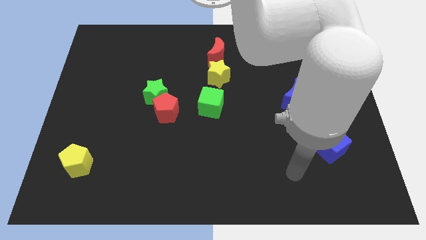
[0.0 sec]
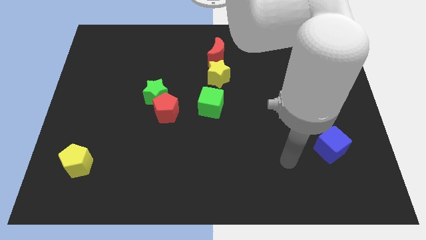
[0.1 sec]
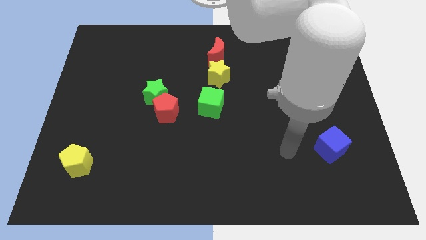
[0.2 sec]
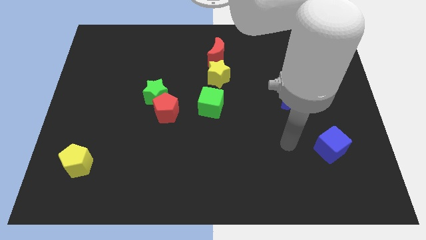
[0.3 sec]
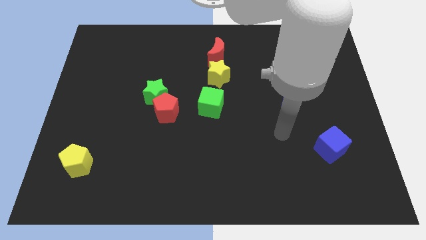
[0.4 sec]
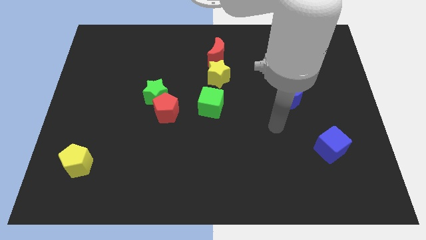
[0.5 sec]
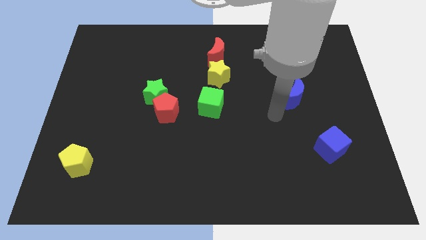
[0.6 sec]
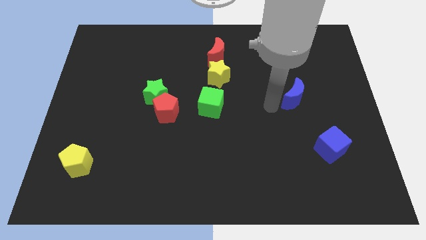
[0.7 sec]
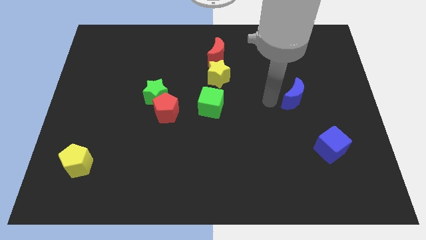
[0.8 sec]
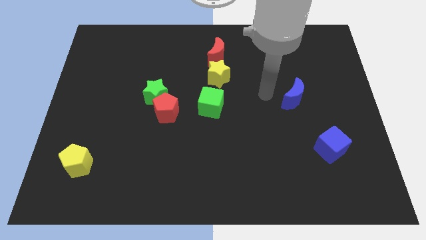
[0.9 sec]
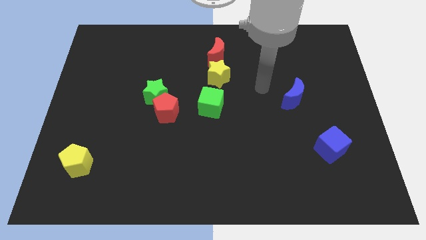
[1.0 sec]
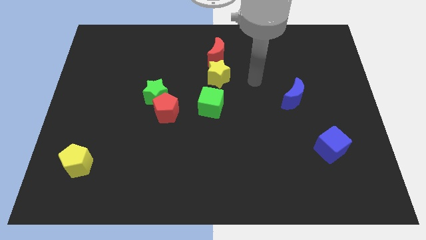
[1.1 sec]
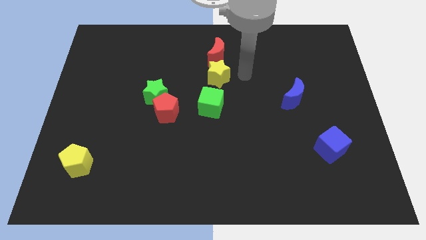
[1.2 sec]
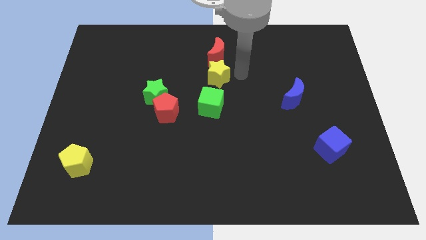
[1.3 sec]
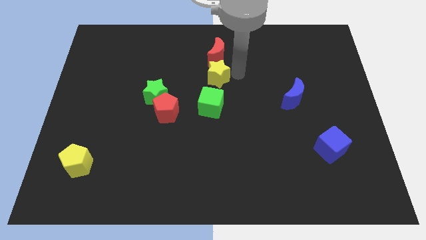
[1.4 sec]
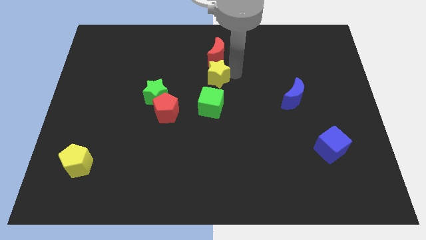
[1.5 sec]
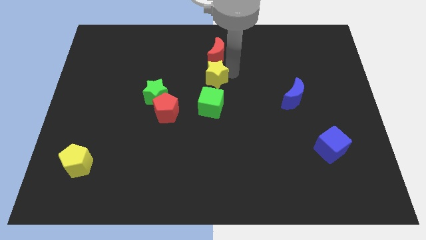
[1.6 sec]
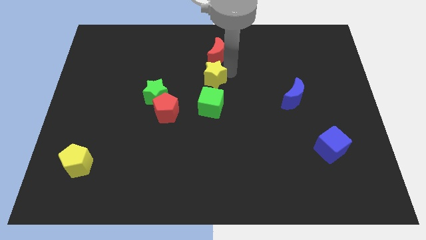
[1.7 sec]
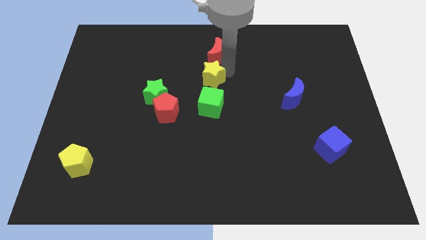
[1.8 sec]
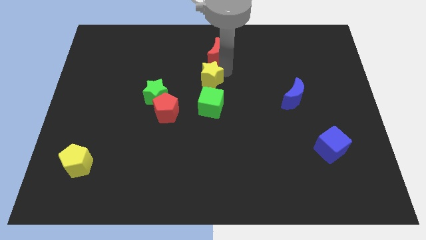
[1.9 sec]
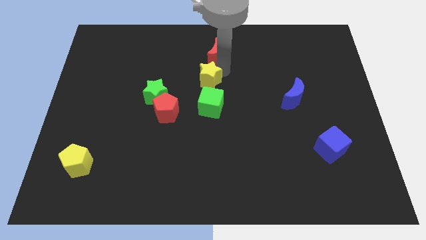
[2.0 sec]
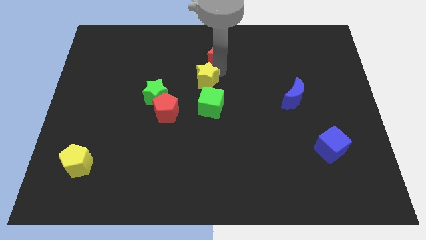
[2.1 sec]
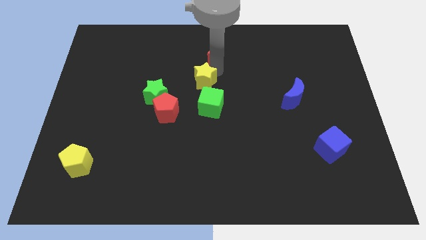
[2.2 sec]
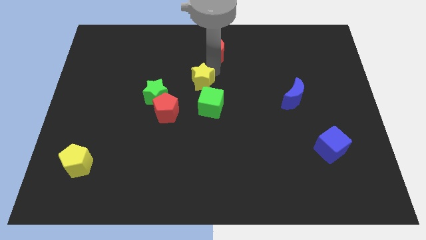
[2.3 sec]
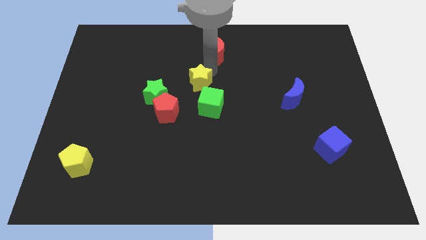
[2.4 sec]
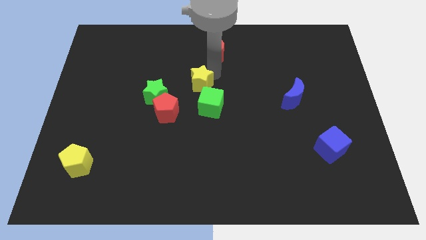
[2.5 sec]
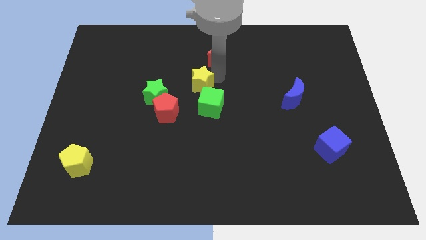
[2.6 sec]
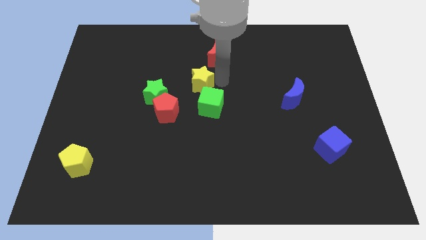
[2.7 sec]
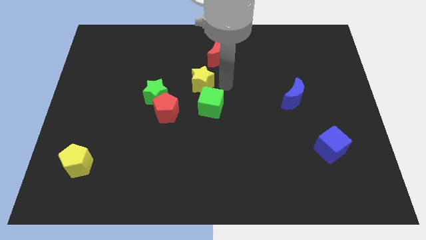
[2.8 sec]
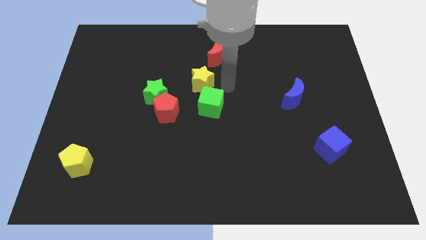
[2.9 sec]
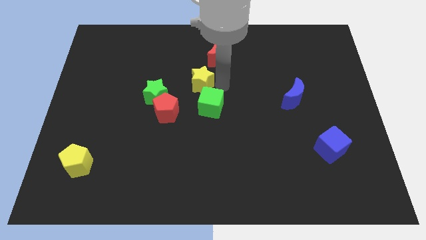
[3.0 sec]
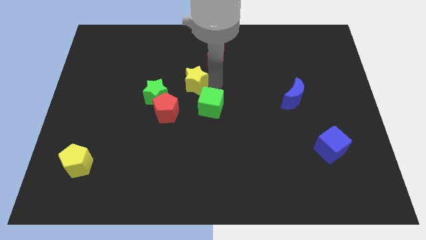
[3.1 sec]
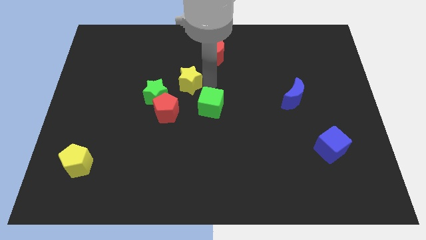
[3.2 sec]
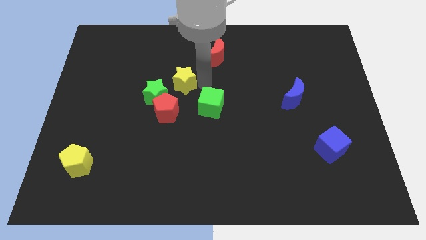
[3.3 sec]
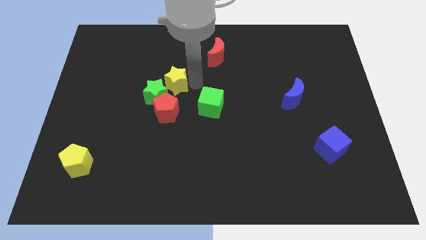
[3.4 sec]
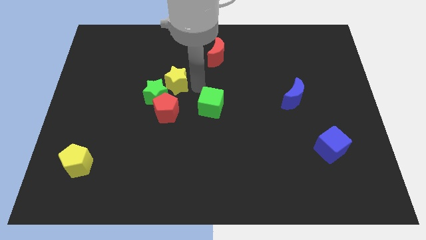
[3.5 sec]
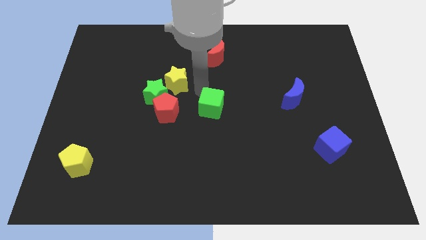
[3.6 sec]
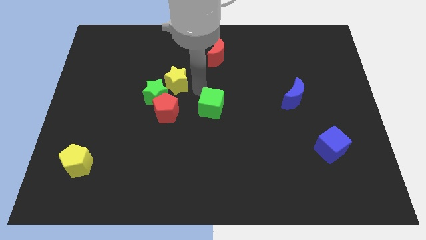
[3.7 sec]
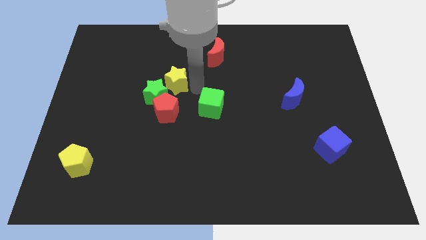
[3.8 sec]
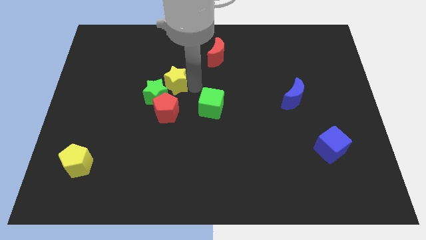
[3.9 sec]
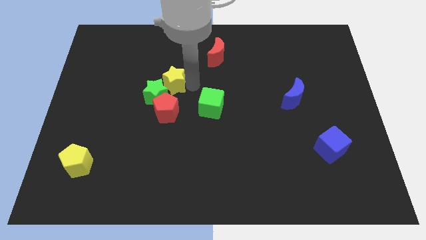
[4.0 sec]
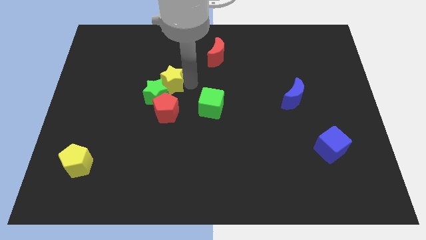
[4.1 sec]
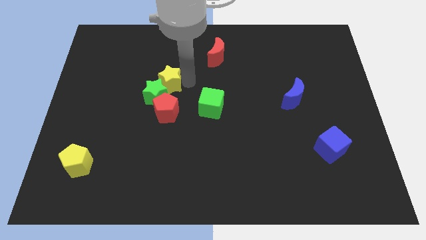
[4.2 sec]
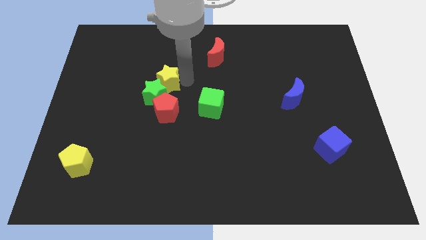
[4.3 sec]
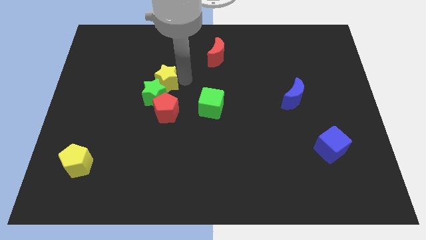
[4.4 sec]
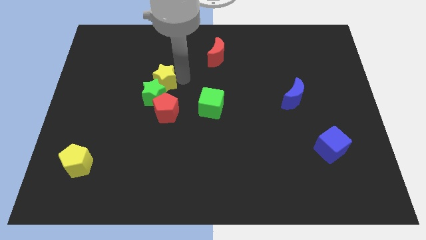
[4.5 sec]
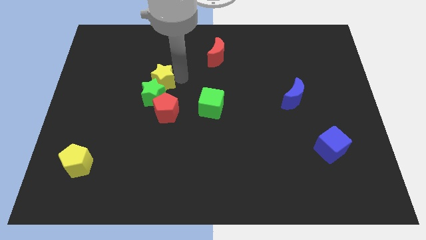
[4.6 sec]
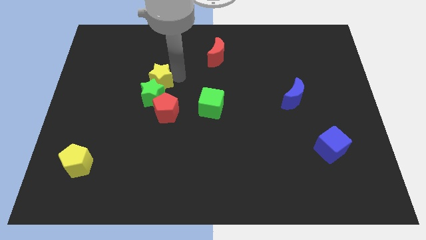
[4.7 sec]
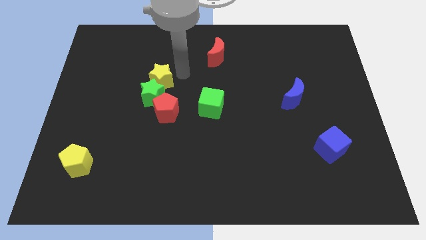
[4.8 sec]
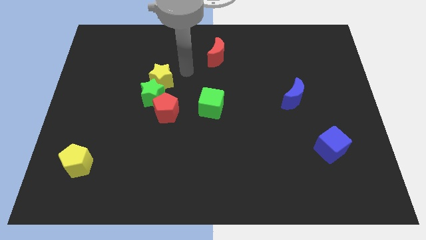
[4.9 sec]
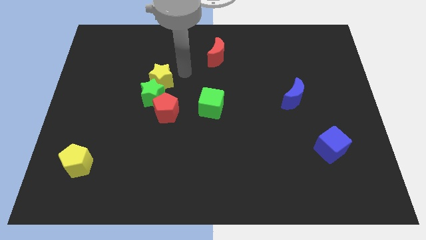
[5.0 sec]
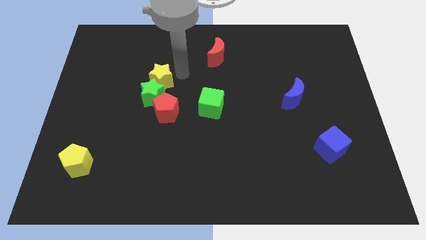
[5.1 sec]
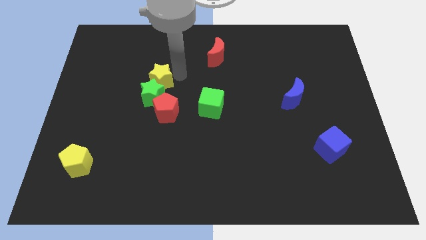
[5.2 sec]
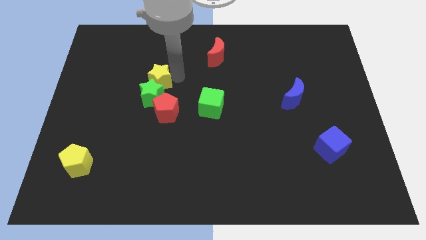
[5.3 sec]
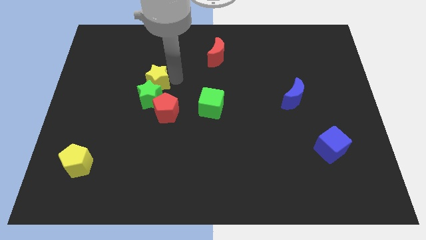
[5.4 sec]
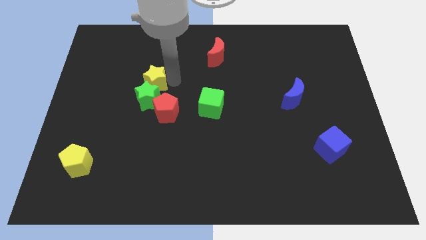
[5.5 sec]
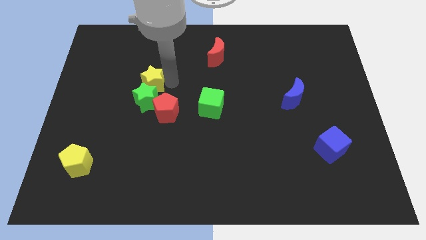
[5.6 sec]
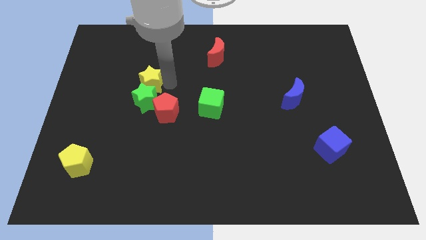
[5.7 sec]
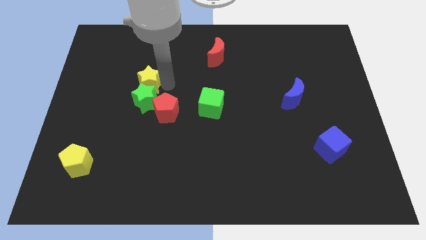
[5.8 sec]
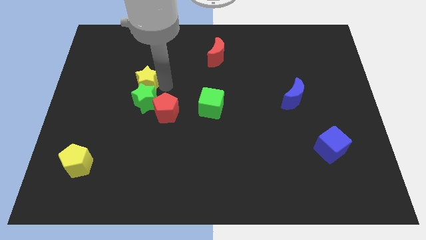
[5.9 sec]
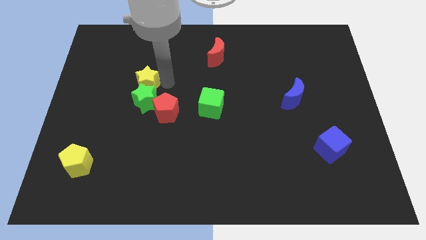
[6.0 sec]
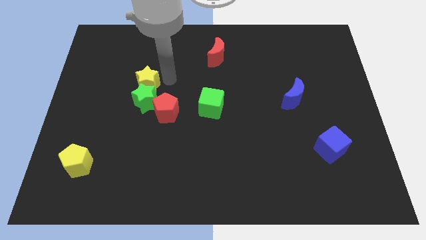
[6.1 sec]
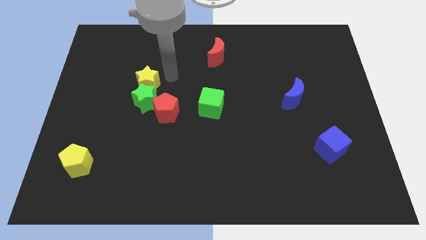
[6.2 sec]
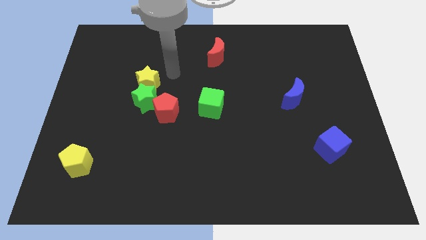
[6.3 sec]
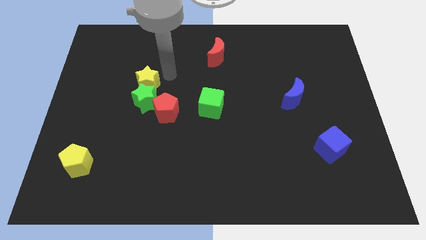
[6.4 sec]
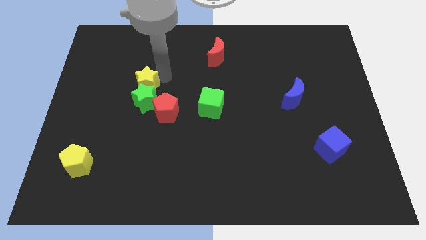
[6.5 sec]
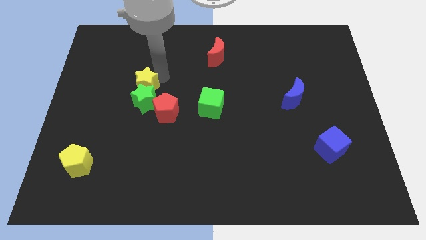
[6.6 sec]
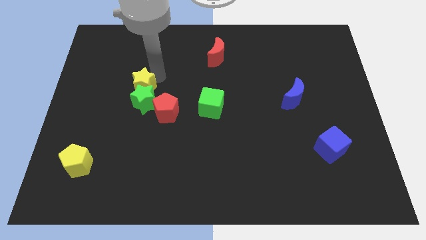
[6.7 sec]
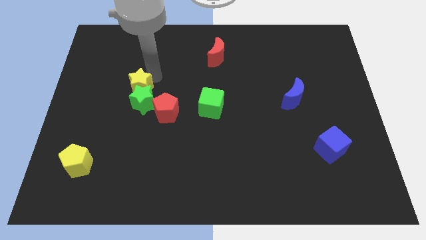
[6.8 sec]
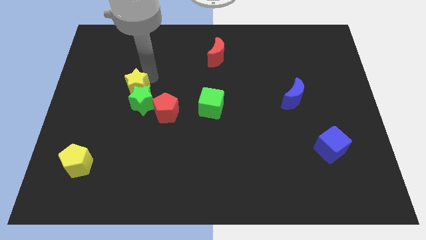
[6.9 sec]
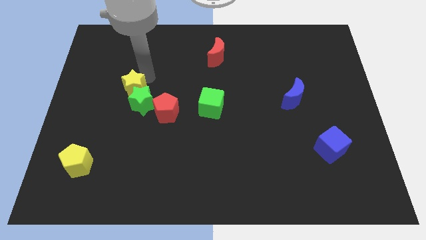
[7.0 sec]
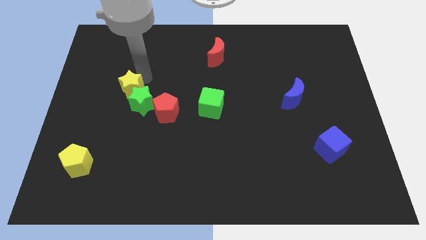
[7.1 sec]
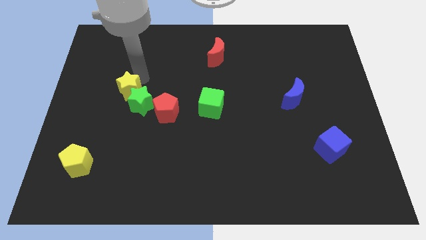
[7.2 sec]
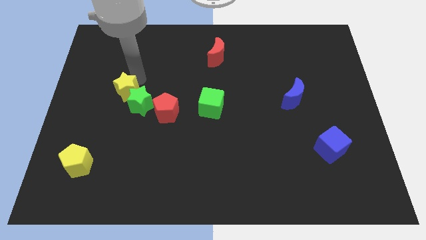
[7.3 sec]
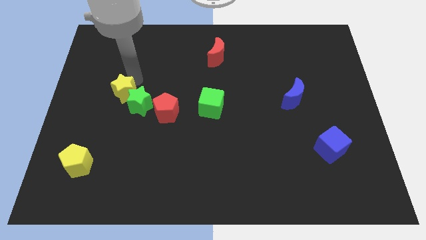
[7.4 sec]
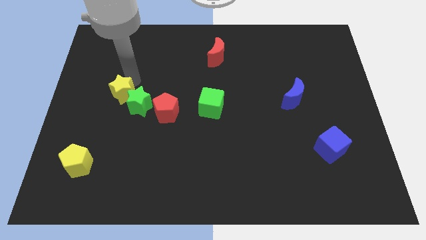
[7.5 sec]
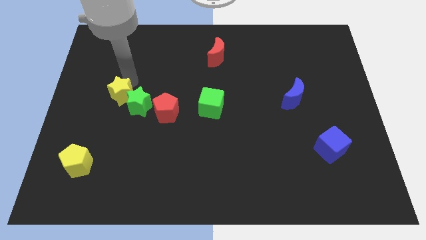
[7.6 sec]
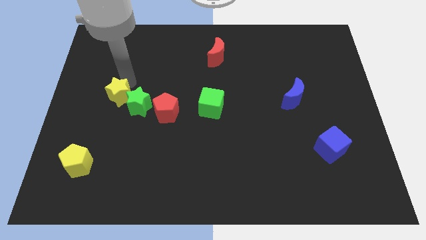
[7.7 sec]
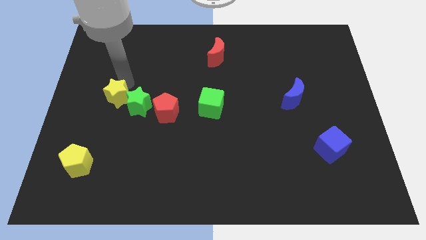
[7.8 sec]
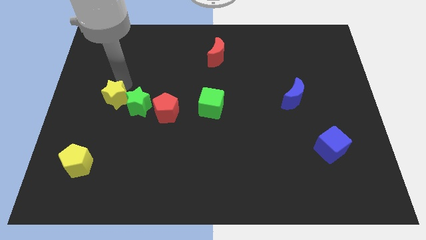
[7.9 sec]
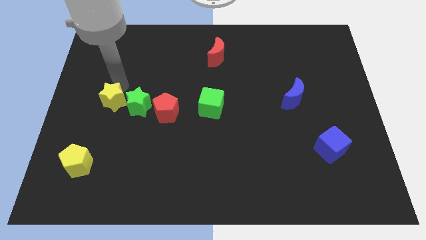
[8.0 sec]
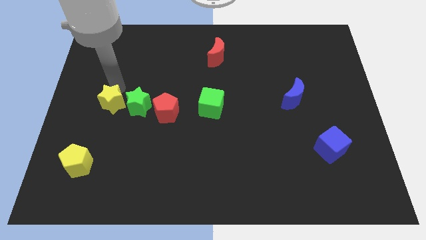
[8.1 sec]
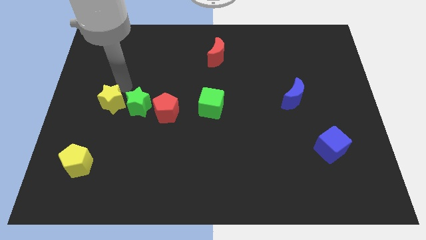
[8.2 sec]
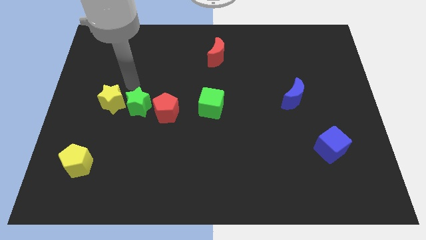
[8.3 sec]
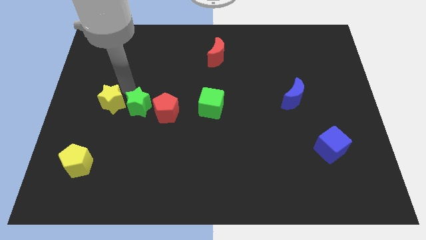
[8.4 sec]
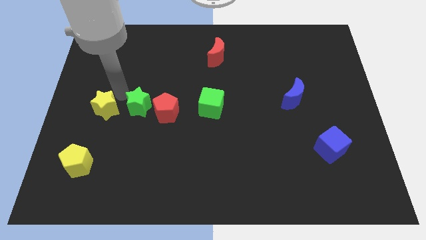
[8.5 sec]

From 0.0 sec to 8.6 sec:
put the yellow star above the yellow pentagon
